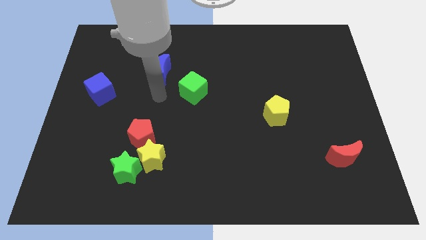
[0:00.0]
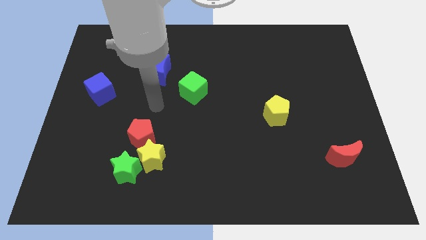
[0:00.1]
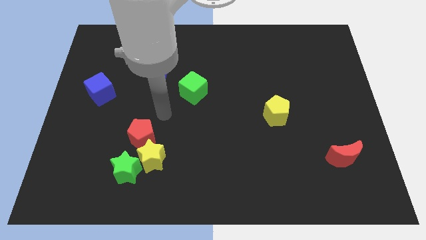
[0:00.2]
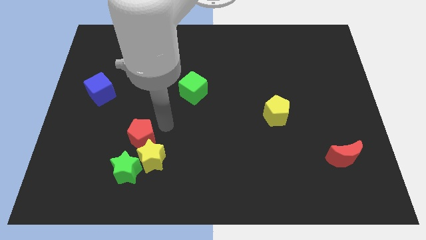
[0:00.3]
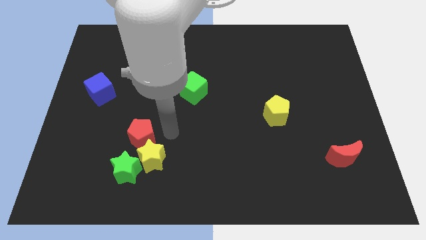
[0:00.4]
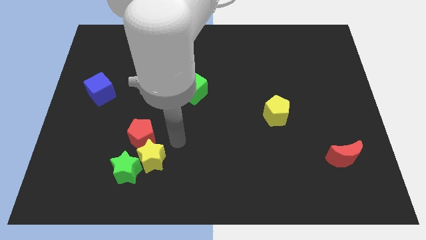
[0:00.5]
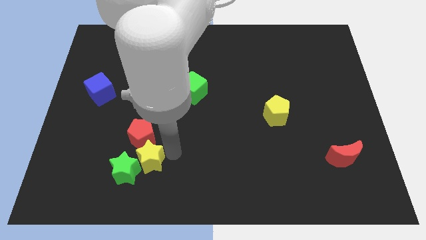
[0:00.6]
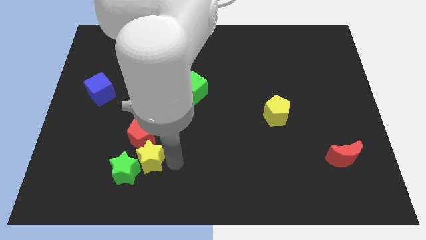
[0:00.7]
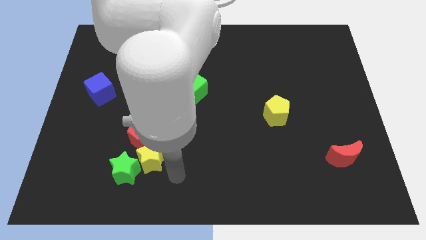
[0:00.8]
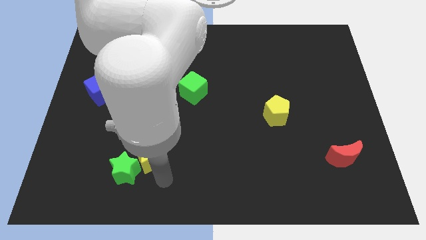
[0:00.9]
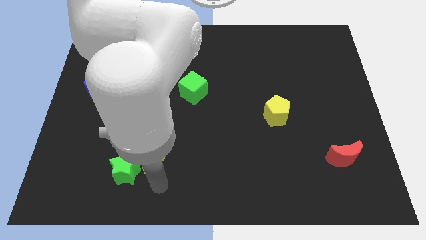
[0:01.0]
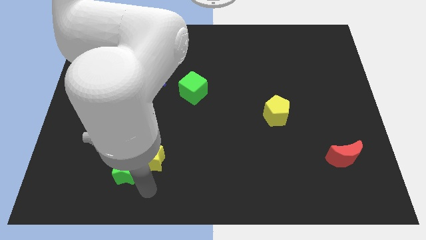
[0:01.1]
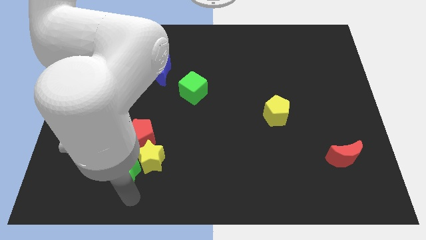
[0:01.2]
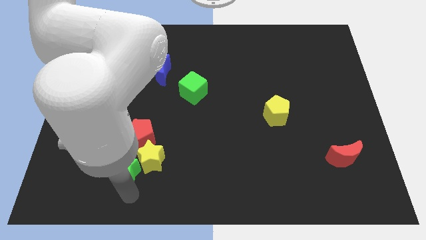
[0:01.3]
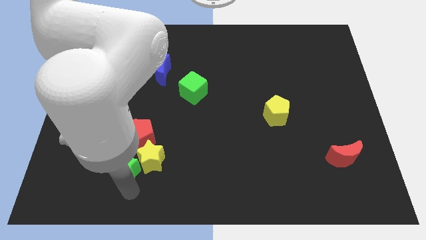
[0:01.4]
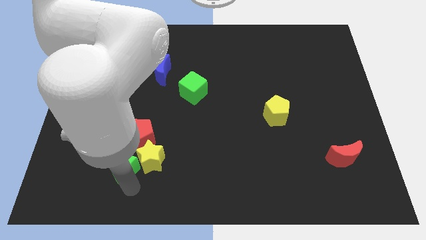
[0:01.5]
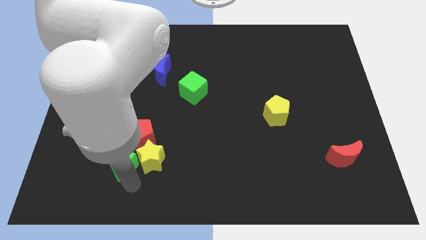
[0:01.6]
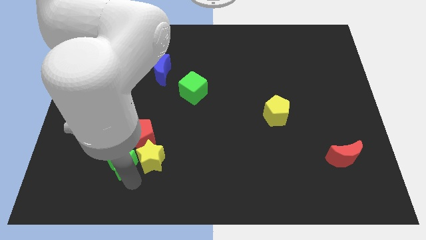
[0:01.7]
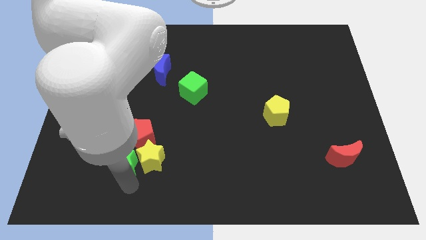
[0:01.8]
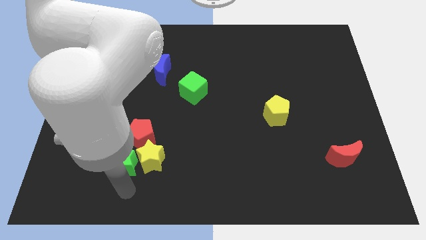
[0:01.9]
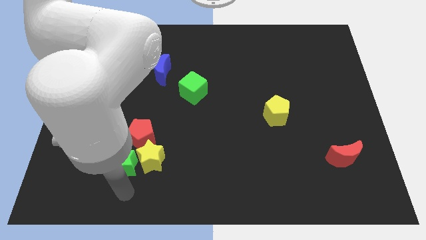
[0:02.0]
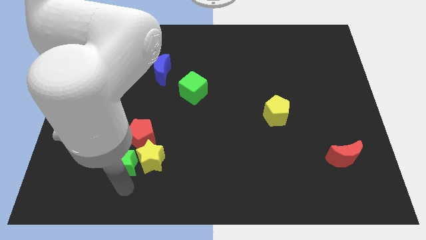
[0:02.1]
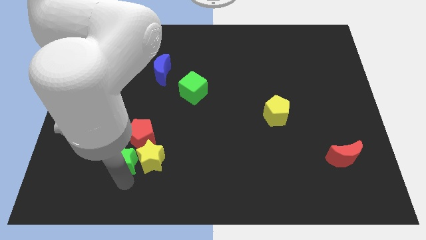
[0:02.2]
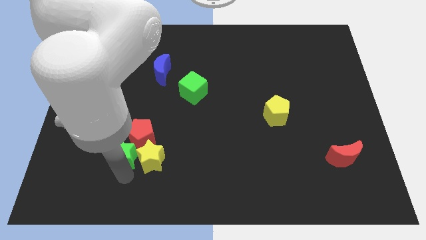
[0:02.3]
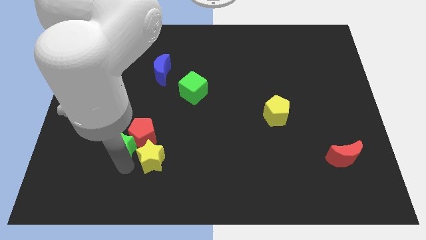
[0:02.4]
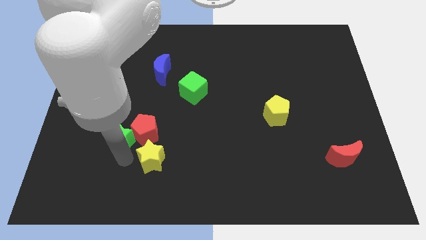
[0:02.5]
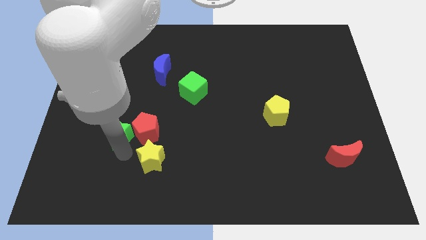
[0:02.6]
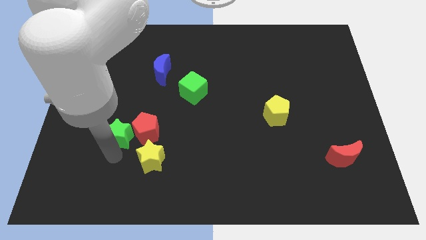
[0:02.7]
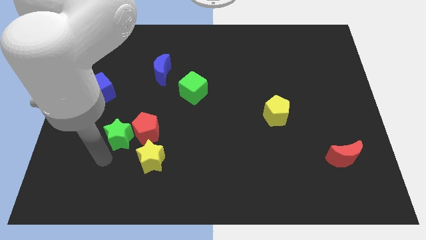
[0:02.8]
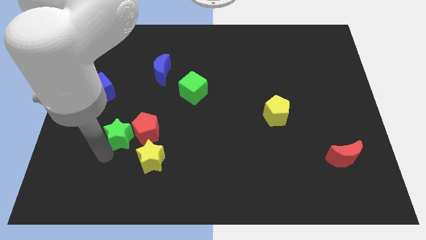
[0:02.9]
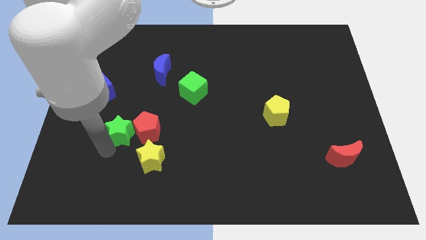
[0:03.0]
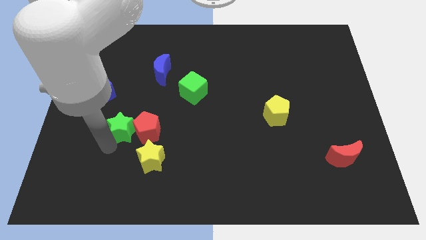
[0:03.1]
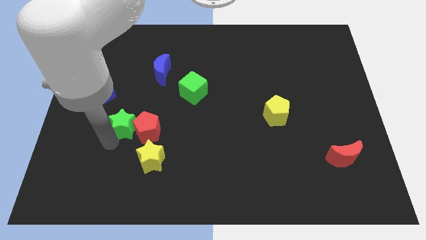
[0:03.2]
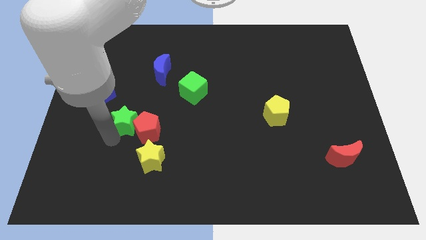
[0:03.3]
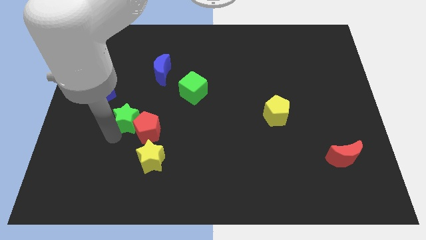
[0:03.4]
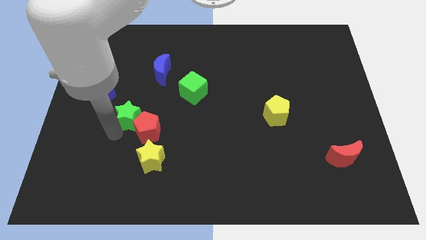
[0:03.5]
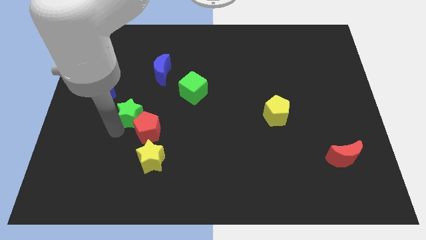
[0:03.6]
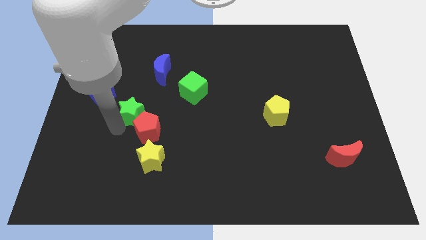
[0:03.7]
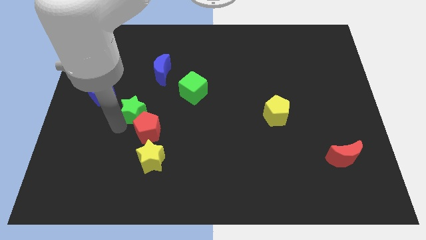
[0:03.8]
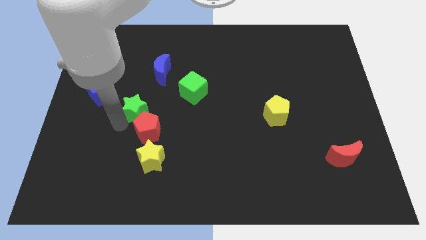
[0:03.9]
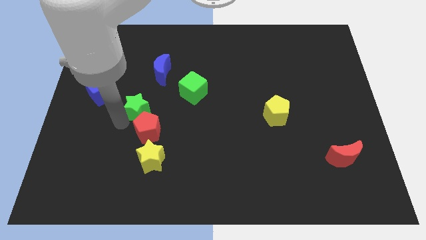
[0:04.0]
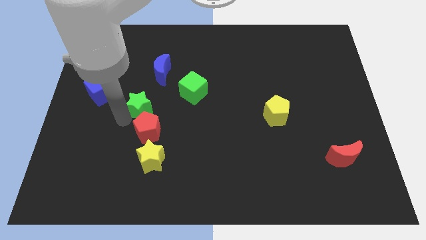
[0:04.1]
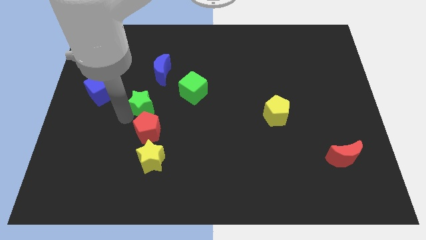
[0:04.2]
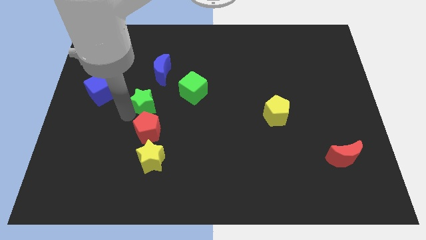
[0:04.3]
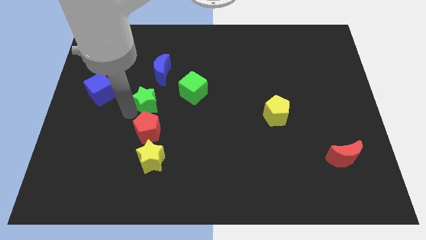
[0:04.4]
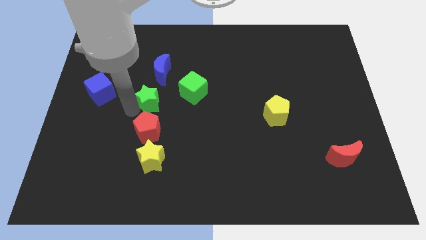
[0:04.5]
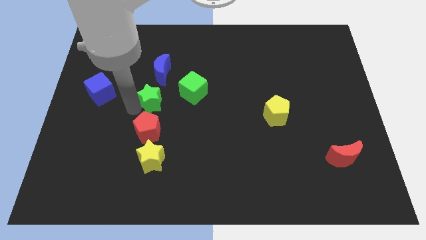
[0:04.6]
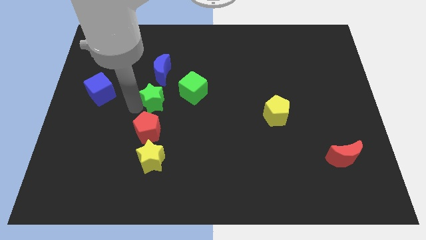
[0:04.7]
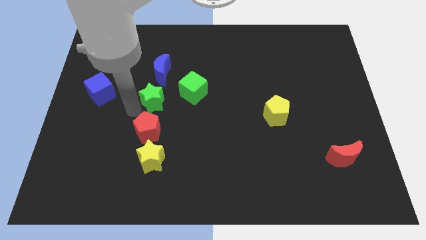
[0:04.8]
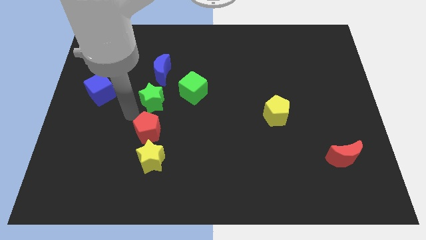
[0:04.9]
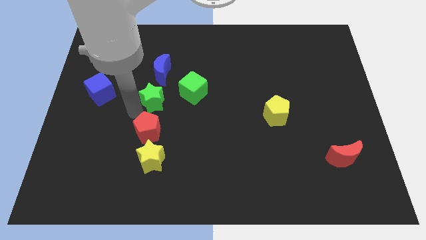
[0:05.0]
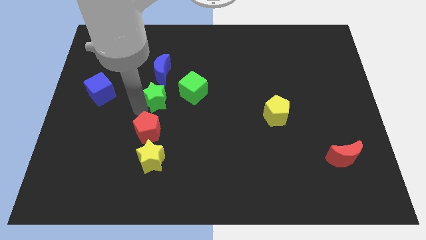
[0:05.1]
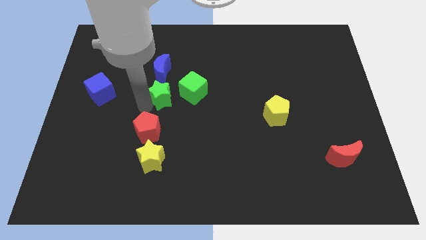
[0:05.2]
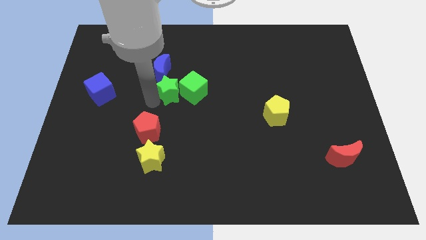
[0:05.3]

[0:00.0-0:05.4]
move the green star next to the green cube

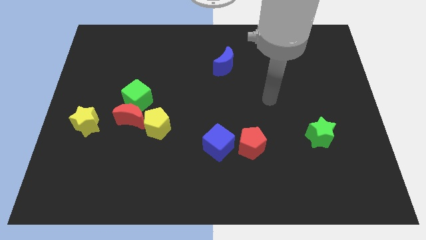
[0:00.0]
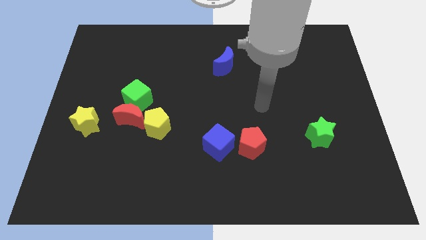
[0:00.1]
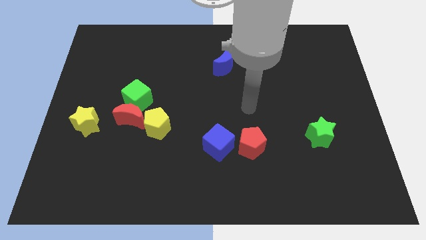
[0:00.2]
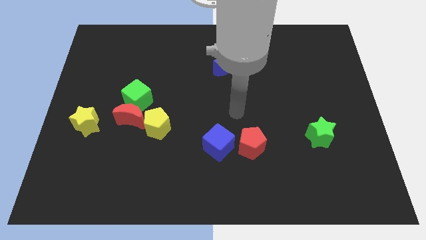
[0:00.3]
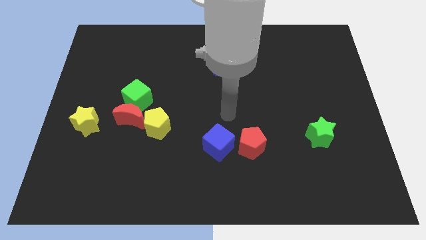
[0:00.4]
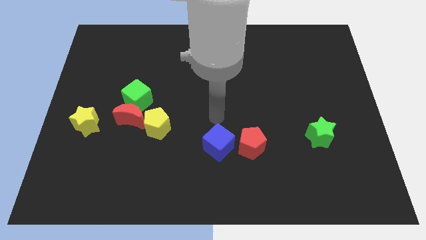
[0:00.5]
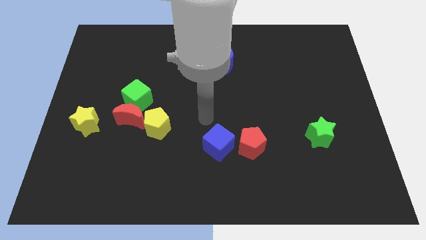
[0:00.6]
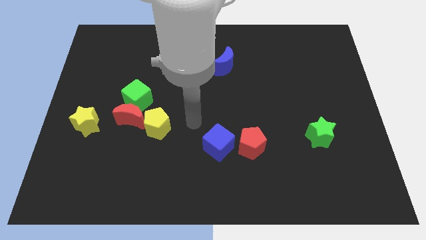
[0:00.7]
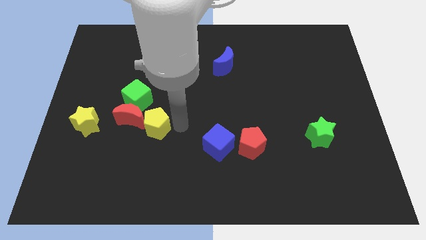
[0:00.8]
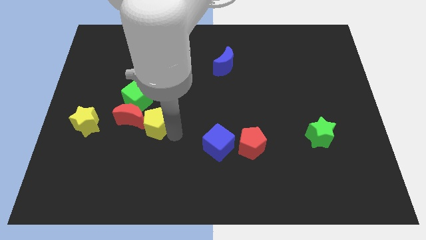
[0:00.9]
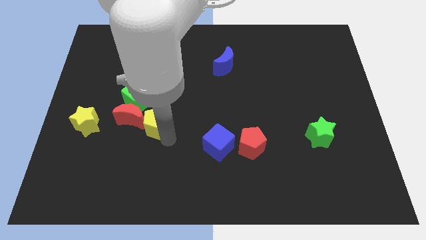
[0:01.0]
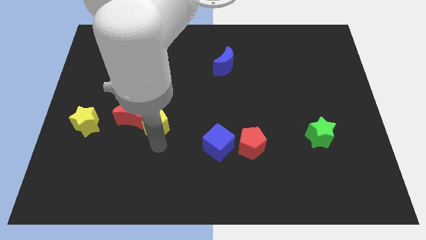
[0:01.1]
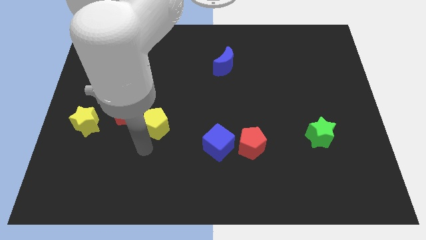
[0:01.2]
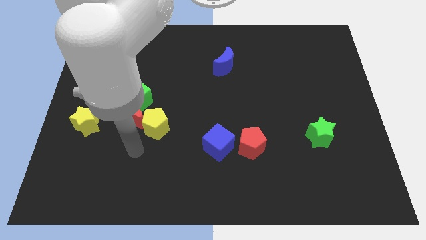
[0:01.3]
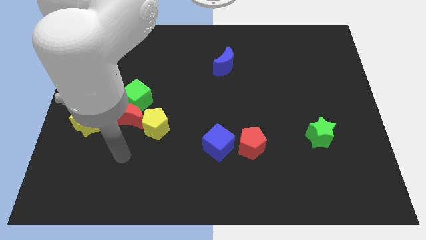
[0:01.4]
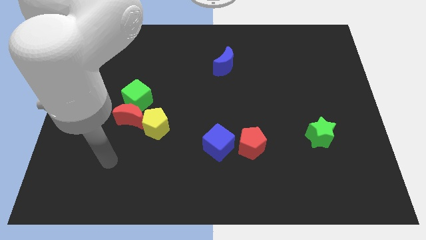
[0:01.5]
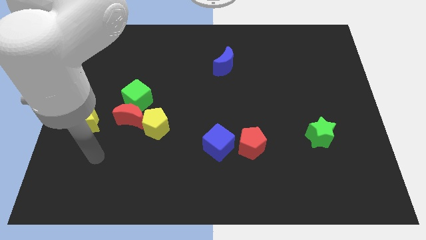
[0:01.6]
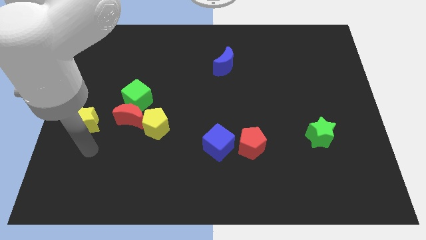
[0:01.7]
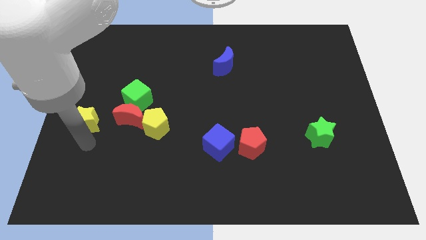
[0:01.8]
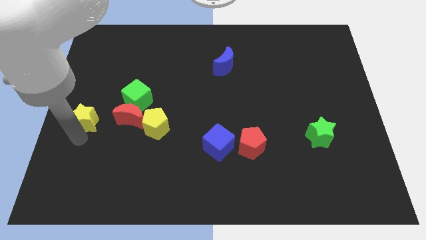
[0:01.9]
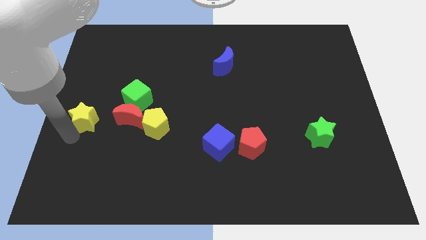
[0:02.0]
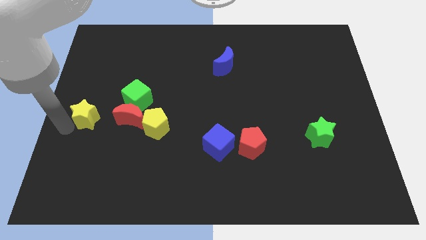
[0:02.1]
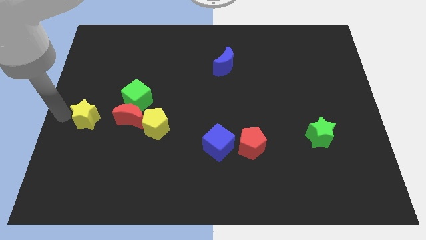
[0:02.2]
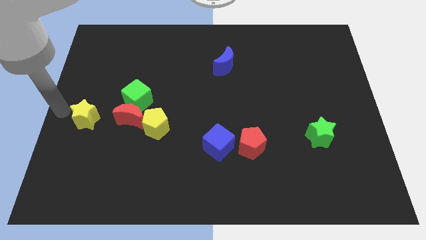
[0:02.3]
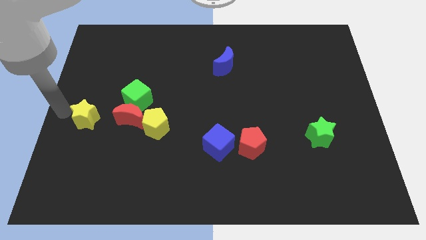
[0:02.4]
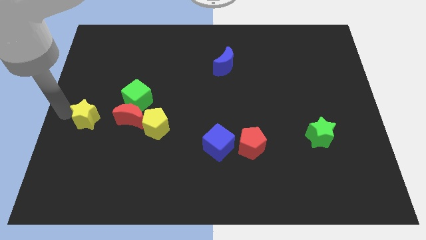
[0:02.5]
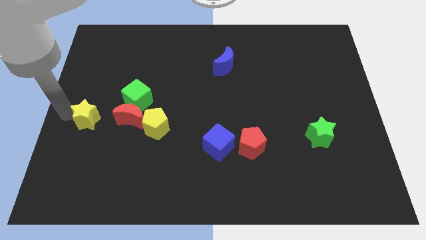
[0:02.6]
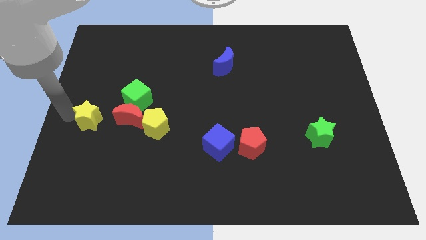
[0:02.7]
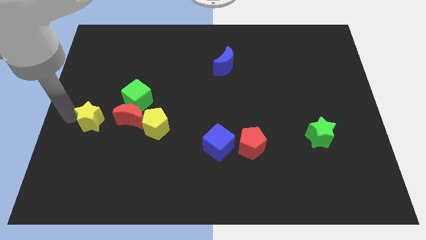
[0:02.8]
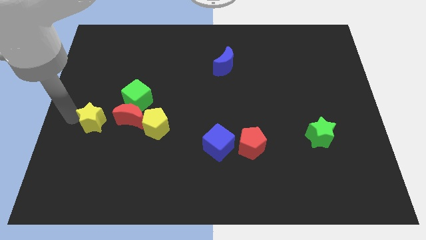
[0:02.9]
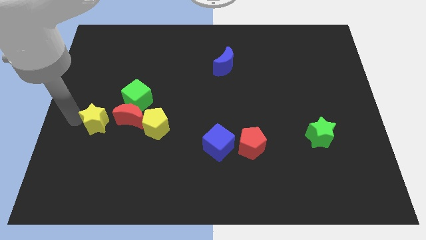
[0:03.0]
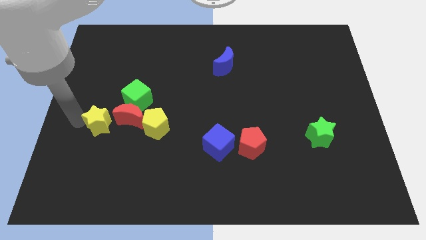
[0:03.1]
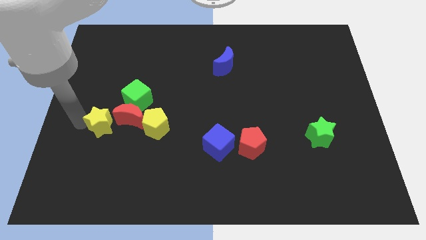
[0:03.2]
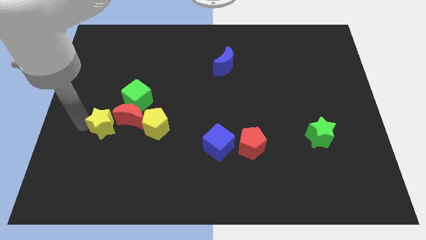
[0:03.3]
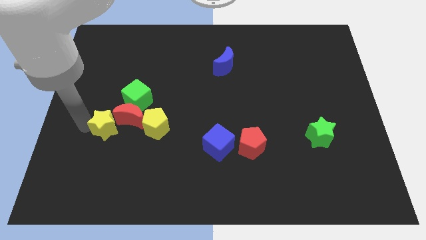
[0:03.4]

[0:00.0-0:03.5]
put the yellow star to the red moon
